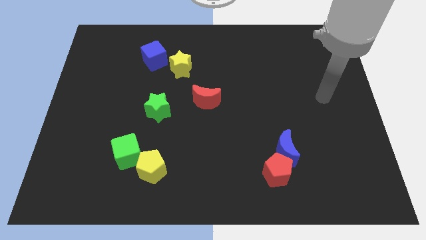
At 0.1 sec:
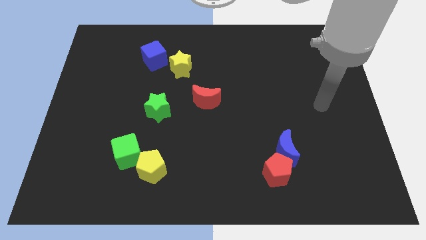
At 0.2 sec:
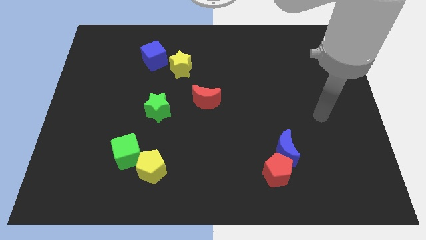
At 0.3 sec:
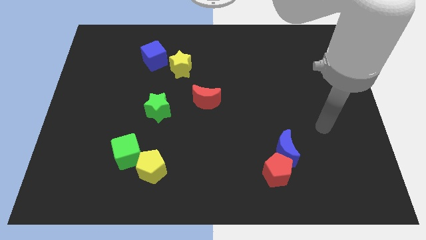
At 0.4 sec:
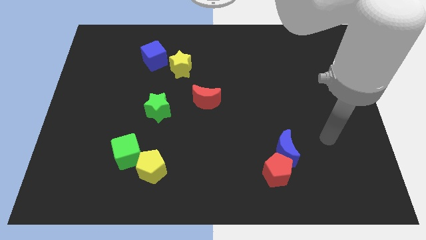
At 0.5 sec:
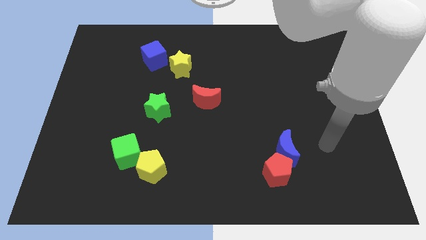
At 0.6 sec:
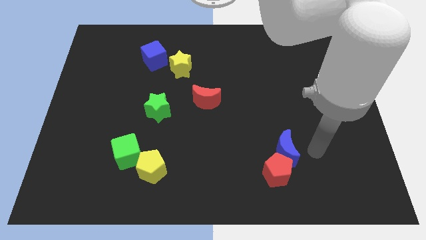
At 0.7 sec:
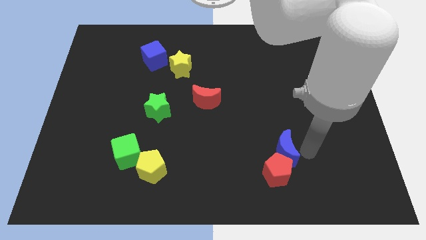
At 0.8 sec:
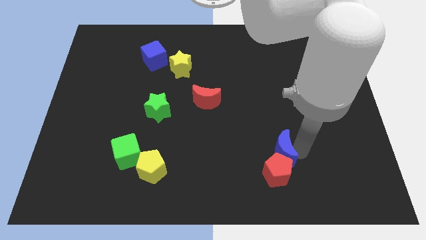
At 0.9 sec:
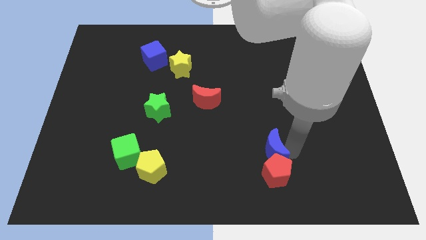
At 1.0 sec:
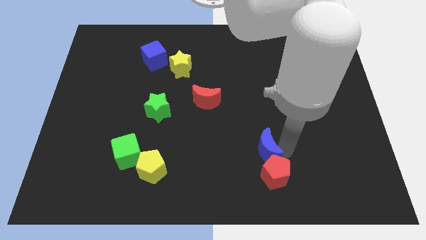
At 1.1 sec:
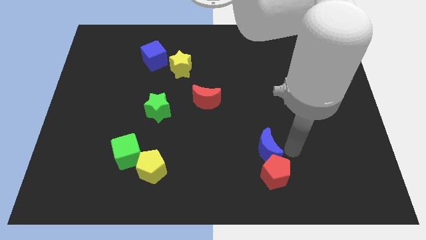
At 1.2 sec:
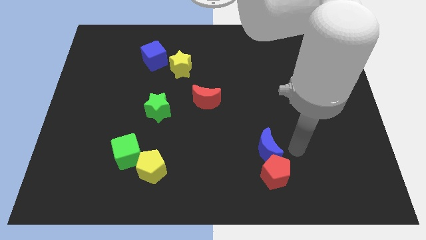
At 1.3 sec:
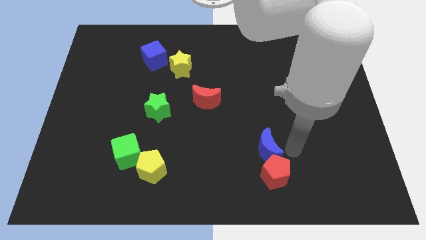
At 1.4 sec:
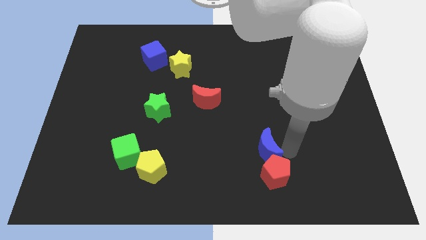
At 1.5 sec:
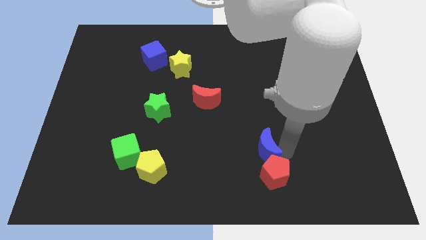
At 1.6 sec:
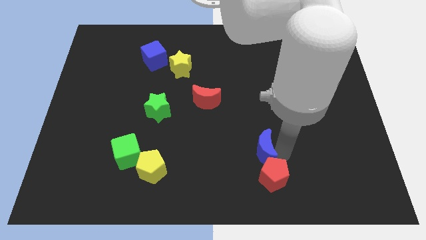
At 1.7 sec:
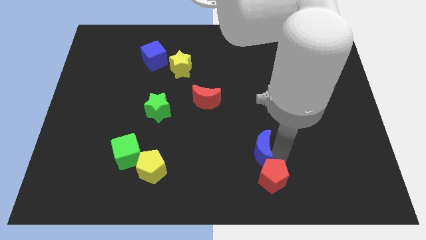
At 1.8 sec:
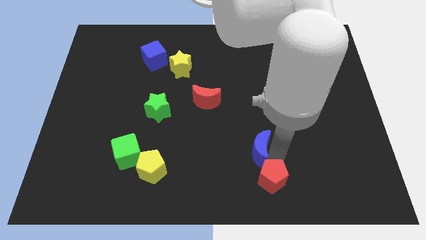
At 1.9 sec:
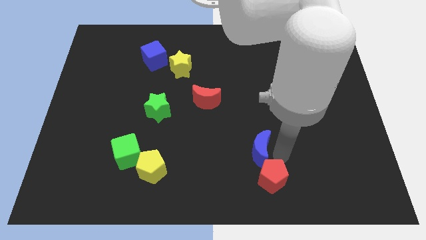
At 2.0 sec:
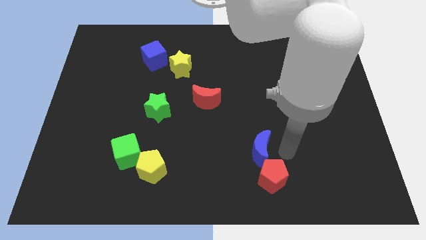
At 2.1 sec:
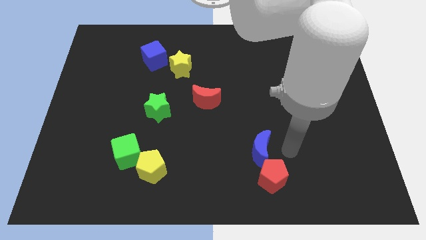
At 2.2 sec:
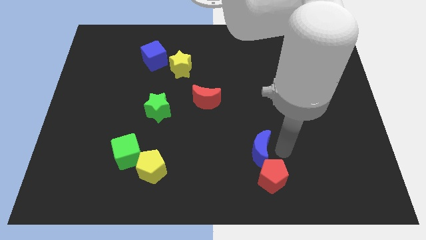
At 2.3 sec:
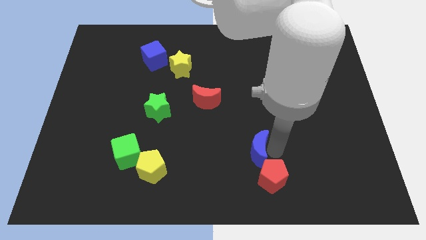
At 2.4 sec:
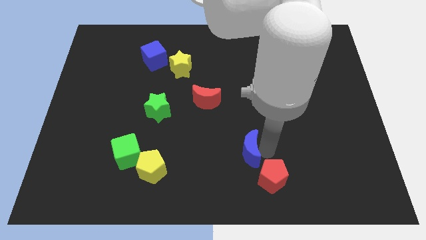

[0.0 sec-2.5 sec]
slightly move the blue moon to the left

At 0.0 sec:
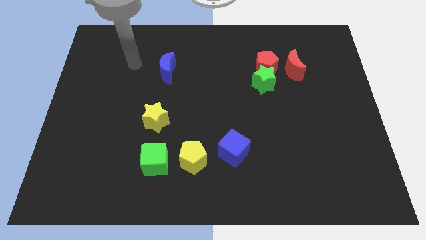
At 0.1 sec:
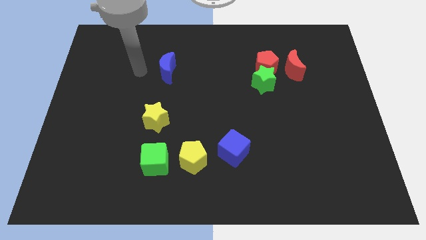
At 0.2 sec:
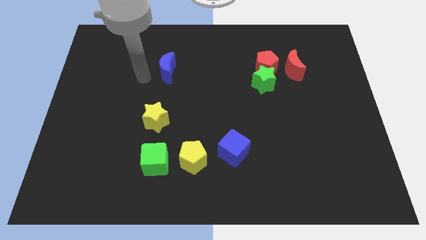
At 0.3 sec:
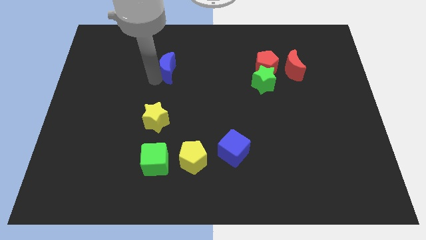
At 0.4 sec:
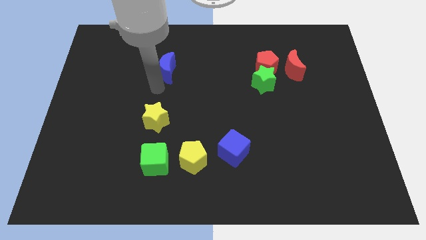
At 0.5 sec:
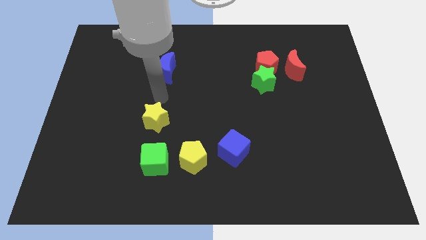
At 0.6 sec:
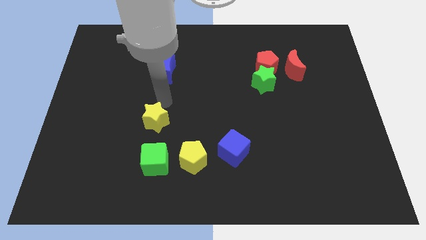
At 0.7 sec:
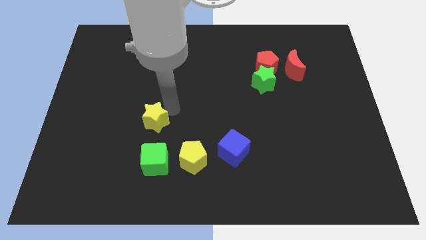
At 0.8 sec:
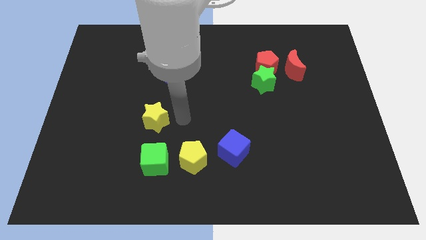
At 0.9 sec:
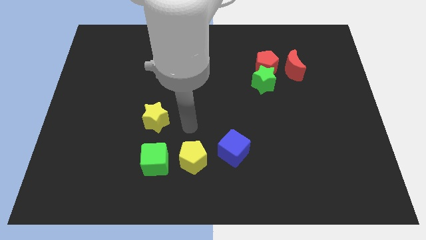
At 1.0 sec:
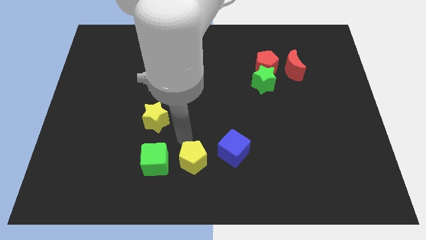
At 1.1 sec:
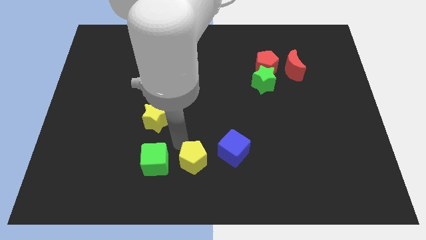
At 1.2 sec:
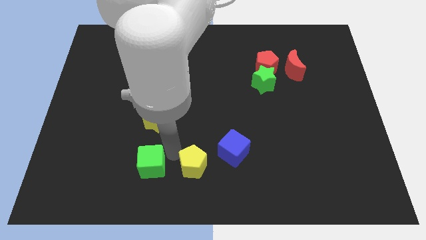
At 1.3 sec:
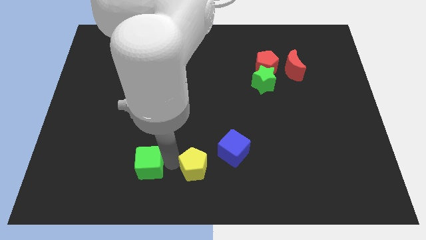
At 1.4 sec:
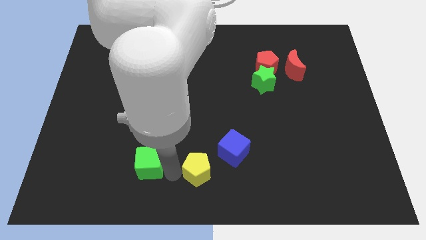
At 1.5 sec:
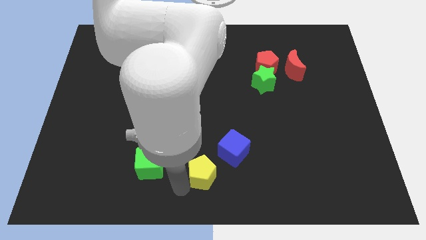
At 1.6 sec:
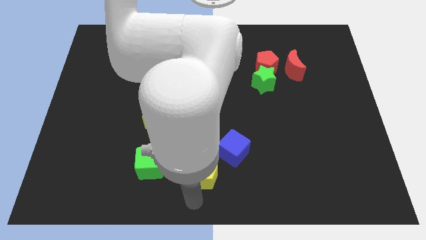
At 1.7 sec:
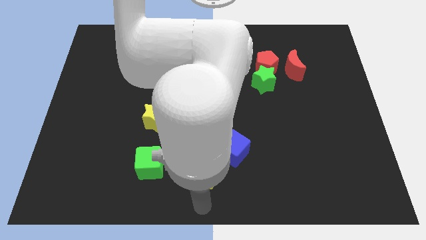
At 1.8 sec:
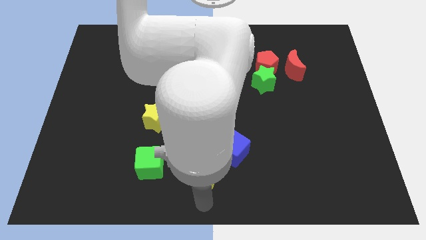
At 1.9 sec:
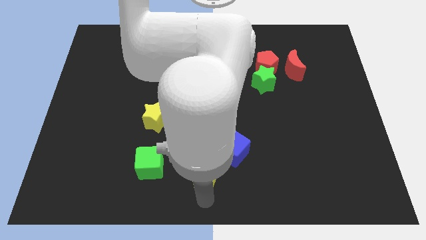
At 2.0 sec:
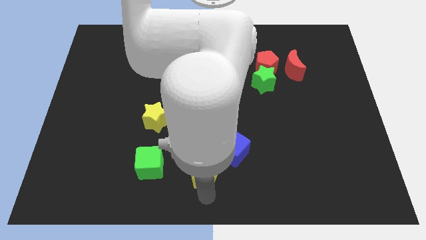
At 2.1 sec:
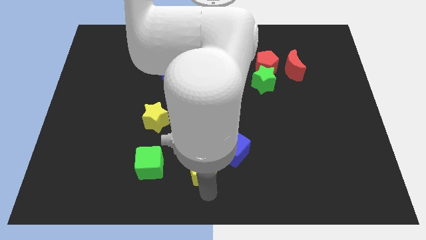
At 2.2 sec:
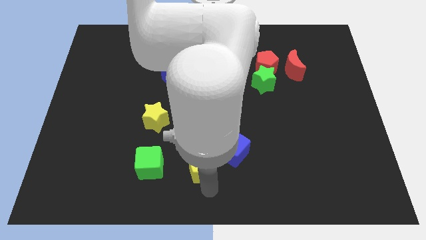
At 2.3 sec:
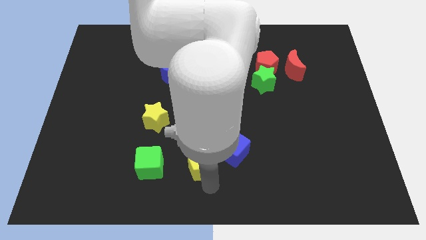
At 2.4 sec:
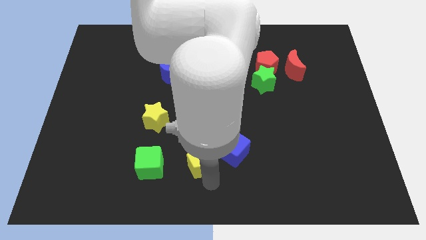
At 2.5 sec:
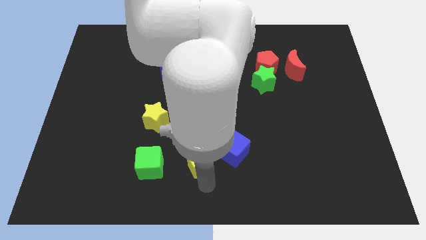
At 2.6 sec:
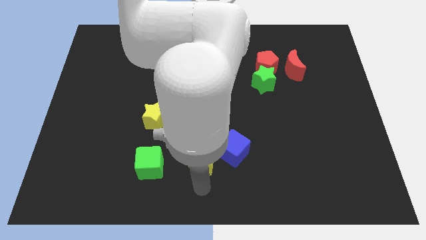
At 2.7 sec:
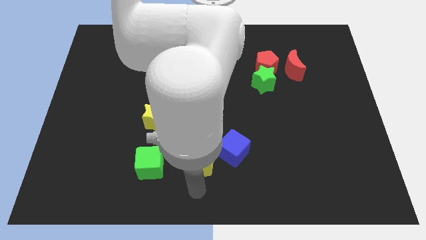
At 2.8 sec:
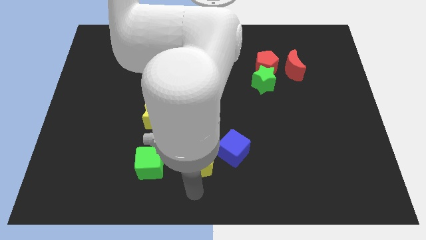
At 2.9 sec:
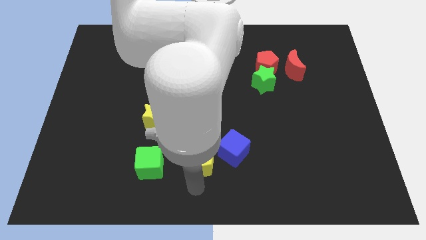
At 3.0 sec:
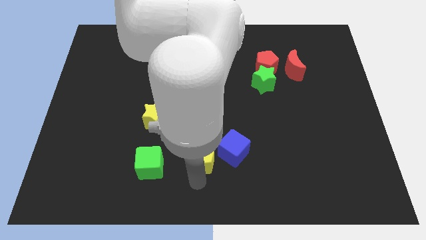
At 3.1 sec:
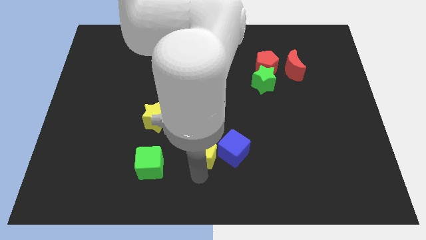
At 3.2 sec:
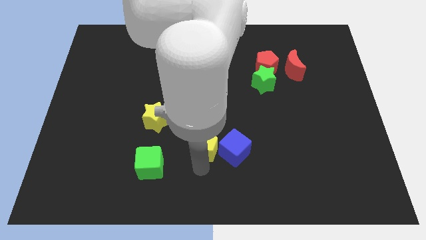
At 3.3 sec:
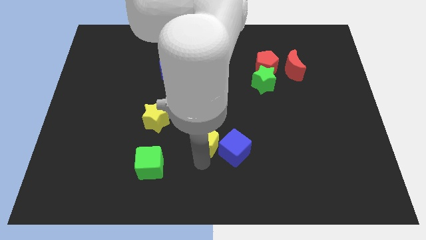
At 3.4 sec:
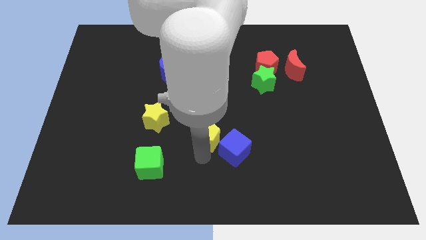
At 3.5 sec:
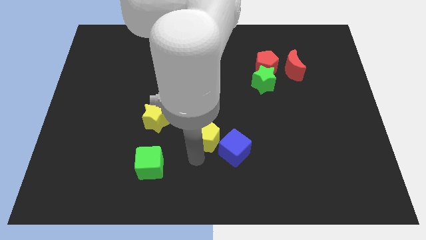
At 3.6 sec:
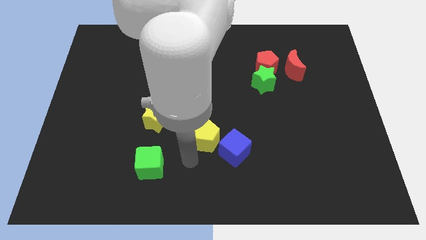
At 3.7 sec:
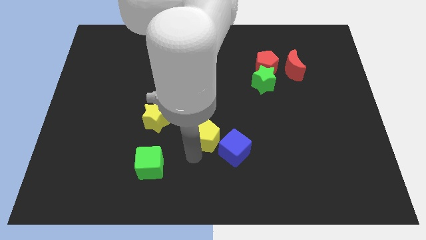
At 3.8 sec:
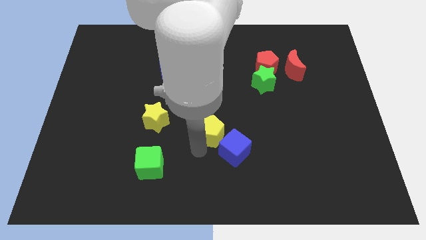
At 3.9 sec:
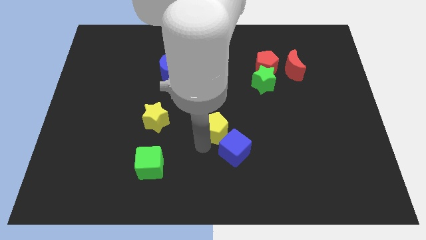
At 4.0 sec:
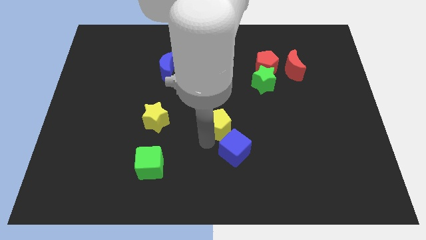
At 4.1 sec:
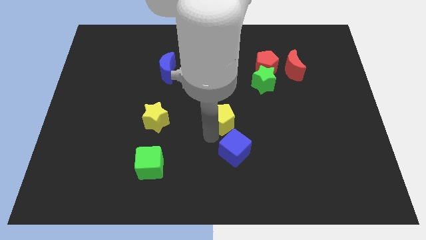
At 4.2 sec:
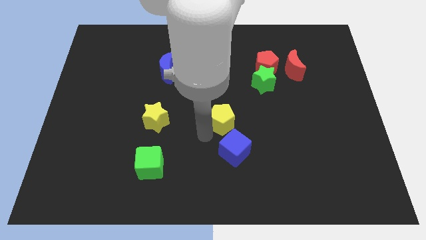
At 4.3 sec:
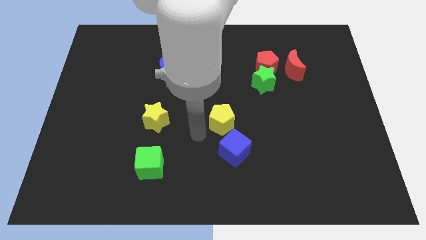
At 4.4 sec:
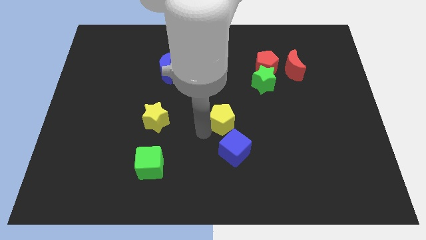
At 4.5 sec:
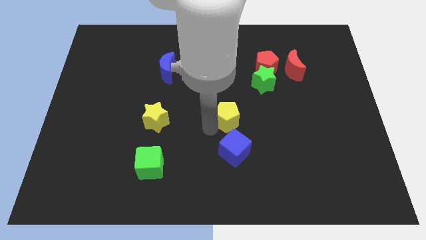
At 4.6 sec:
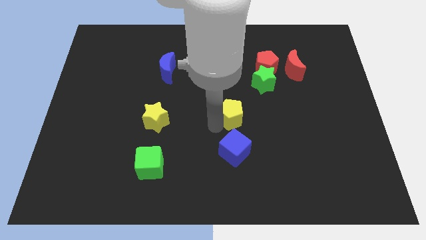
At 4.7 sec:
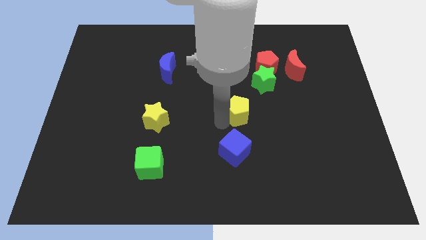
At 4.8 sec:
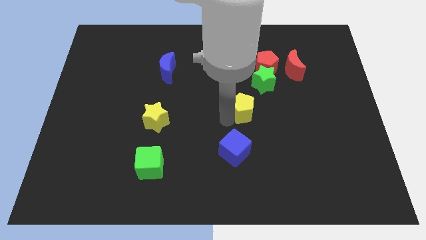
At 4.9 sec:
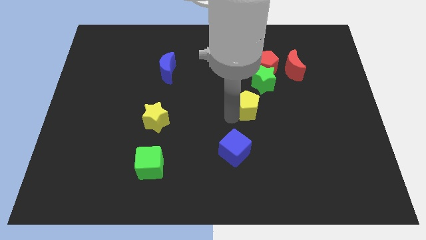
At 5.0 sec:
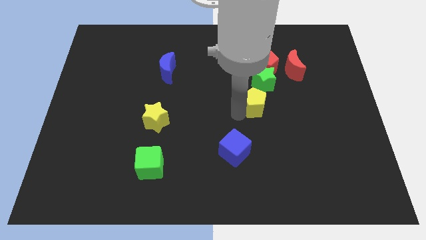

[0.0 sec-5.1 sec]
push the yellow pentagon diagonally up and right
